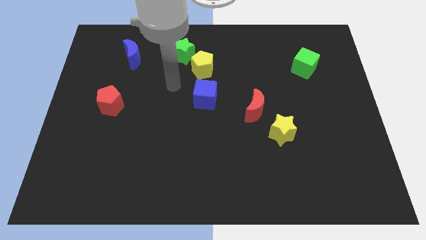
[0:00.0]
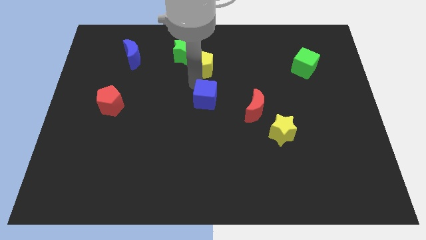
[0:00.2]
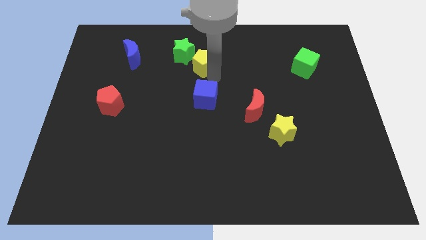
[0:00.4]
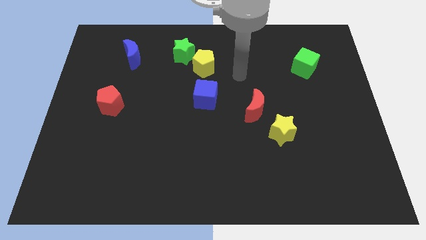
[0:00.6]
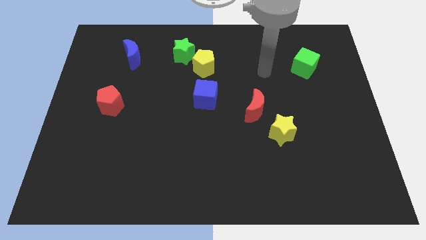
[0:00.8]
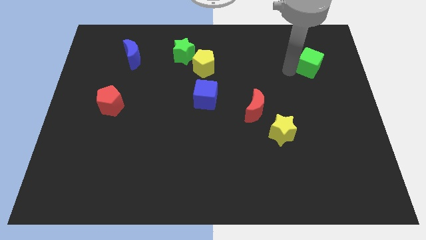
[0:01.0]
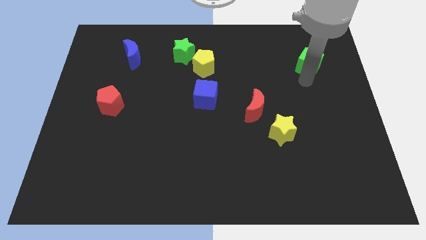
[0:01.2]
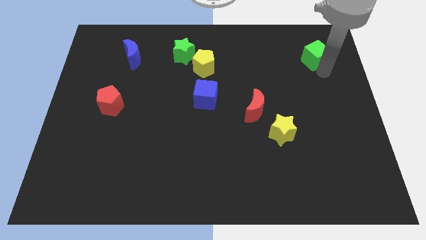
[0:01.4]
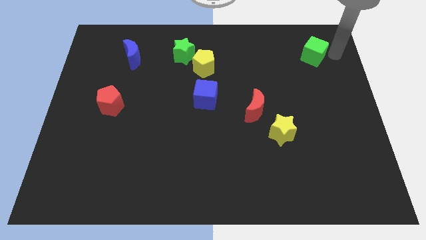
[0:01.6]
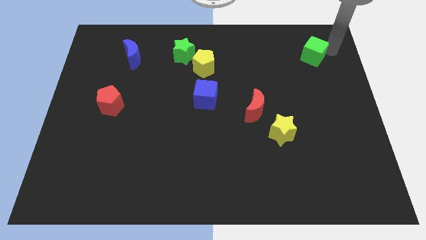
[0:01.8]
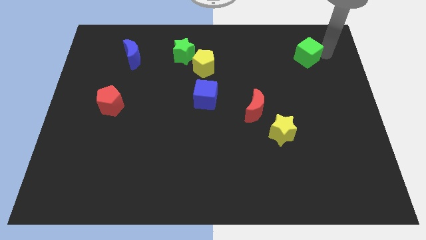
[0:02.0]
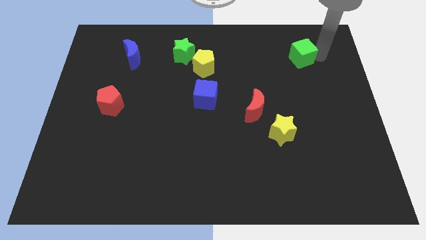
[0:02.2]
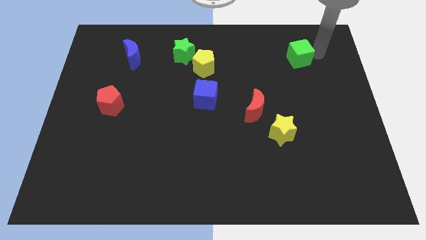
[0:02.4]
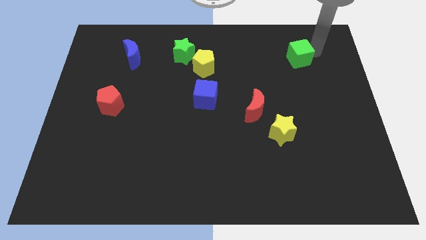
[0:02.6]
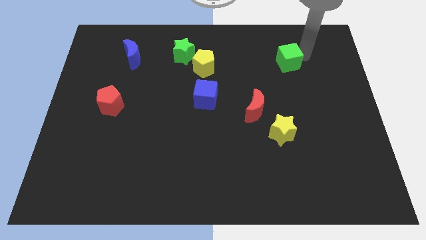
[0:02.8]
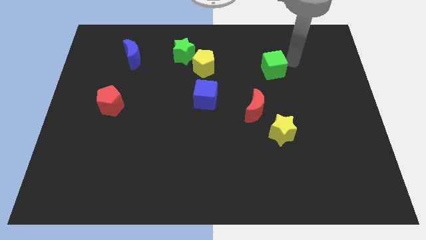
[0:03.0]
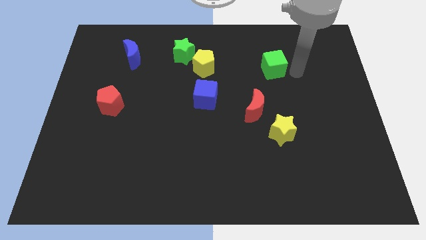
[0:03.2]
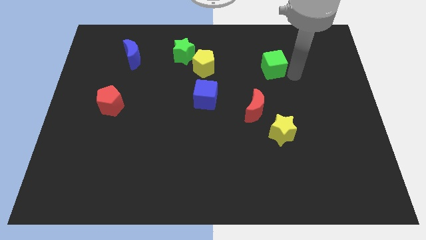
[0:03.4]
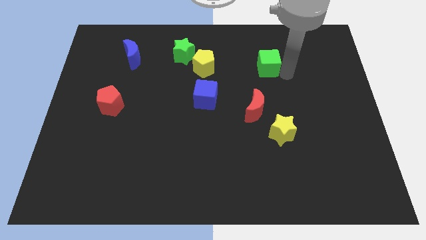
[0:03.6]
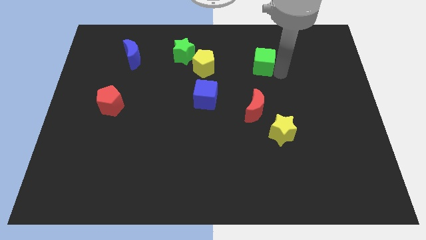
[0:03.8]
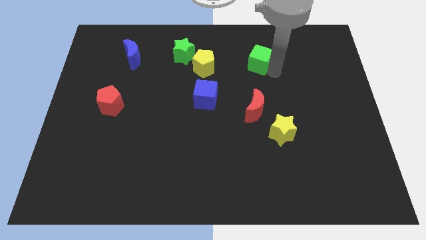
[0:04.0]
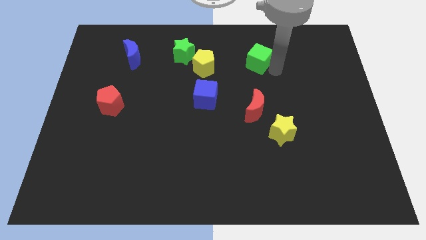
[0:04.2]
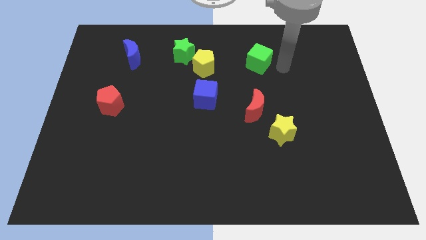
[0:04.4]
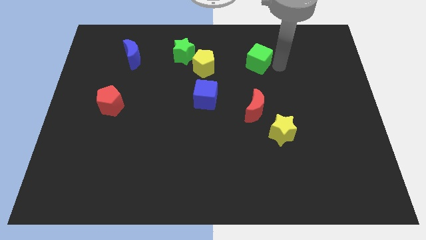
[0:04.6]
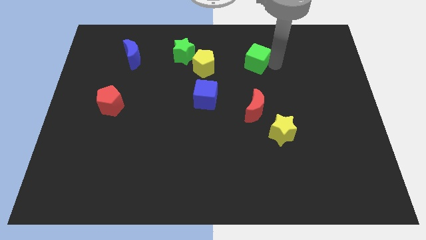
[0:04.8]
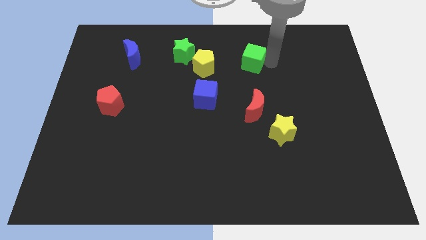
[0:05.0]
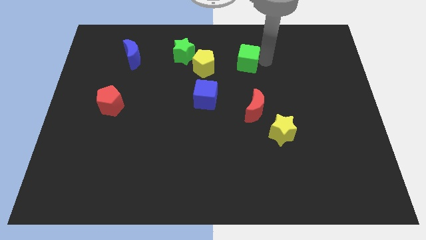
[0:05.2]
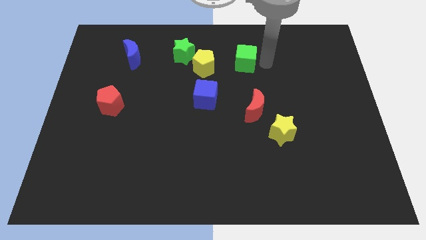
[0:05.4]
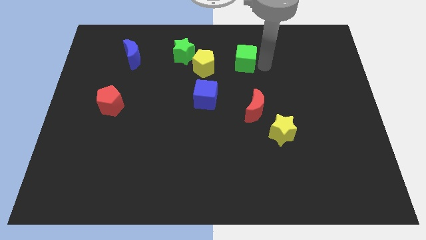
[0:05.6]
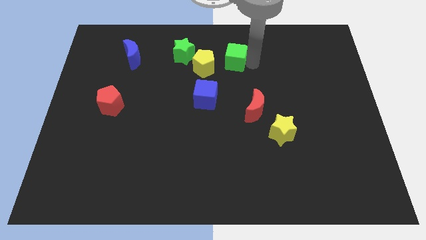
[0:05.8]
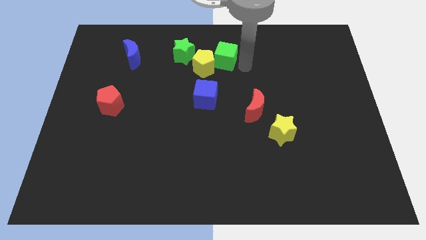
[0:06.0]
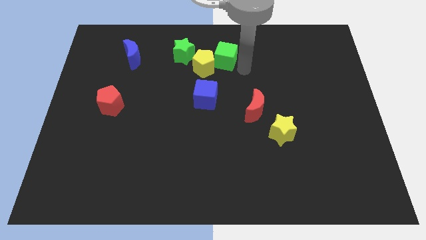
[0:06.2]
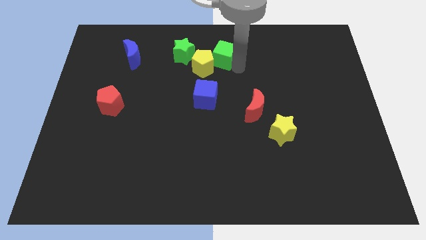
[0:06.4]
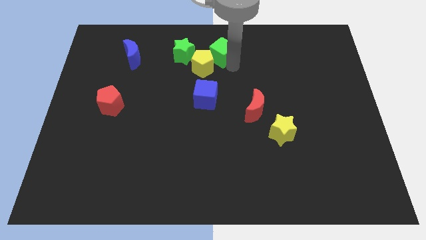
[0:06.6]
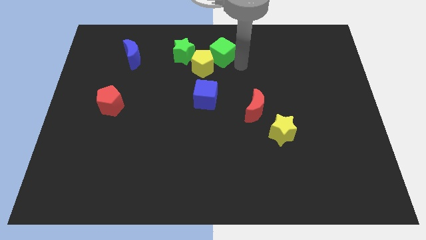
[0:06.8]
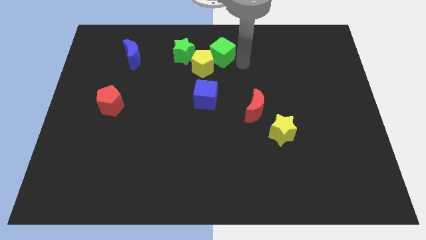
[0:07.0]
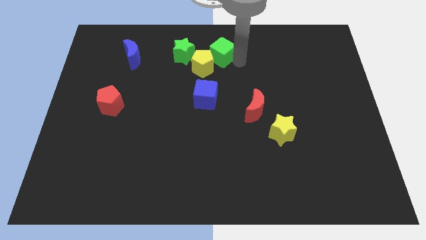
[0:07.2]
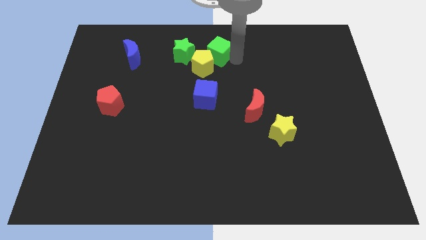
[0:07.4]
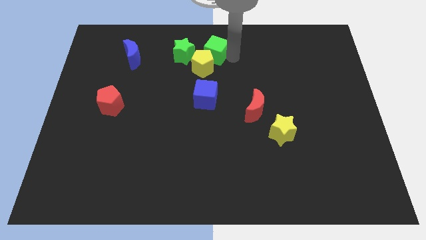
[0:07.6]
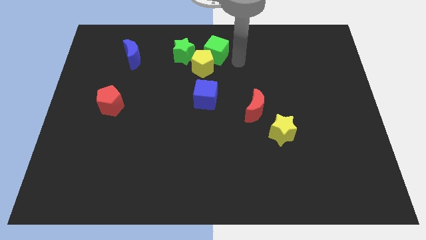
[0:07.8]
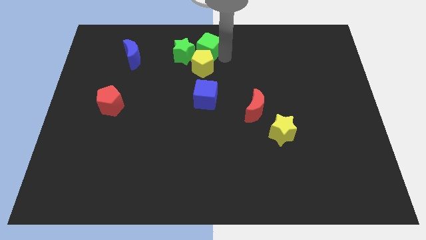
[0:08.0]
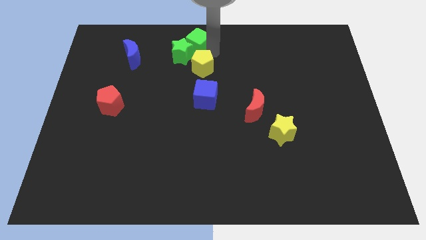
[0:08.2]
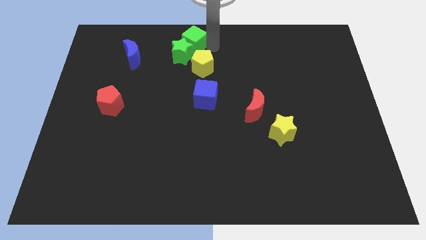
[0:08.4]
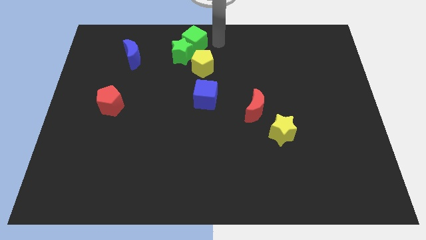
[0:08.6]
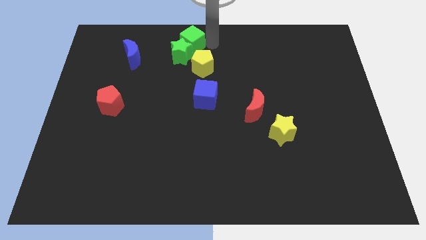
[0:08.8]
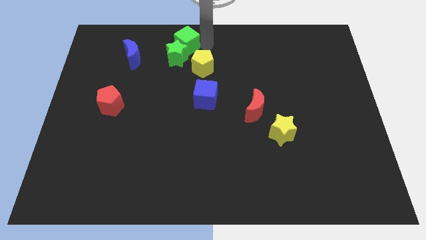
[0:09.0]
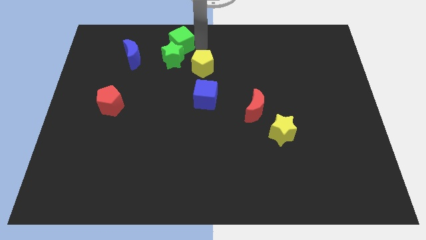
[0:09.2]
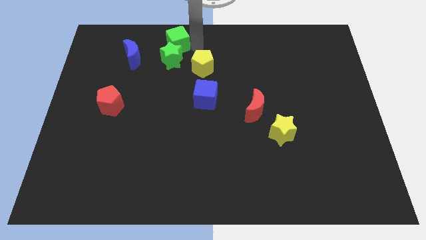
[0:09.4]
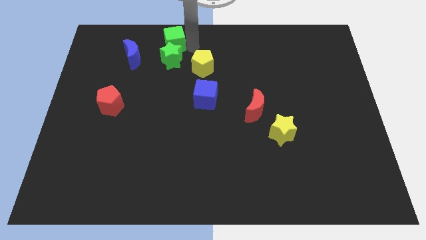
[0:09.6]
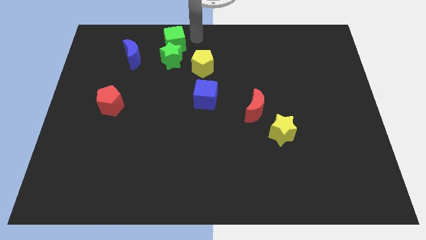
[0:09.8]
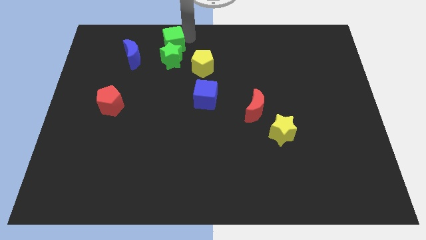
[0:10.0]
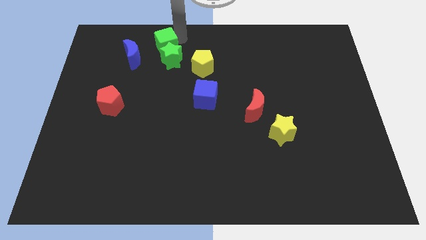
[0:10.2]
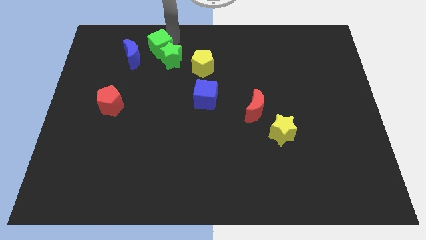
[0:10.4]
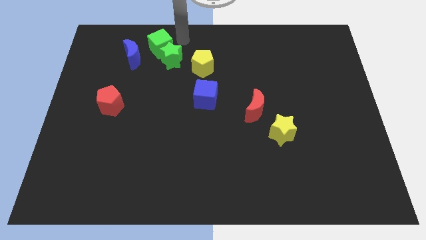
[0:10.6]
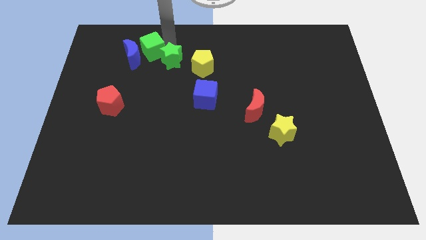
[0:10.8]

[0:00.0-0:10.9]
move the green cube to the blue moon

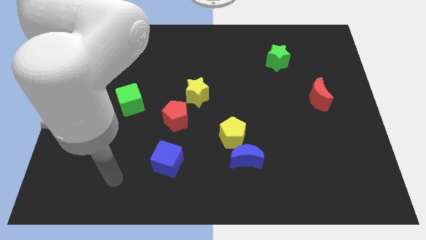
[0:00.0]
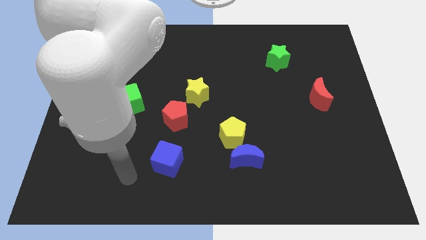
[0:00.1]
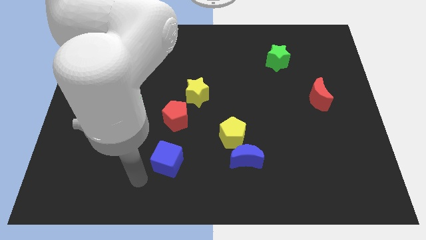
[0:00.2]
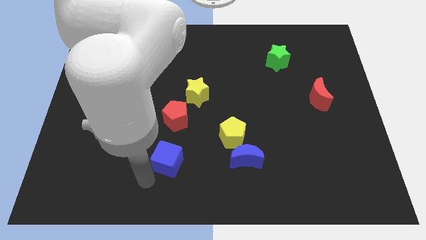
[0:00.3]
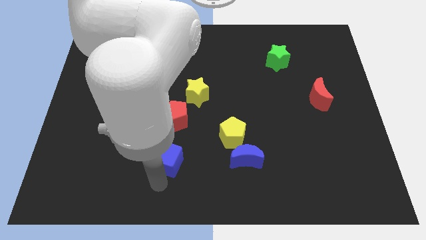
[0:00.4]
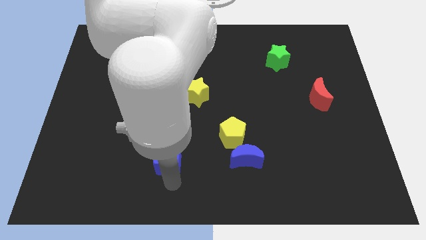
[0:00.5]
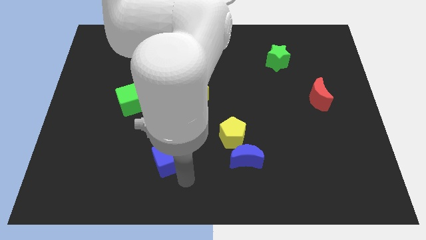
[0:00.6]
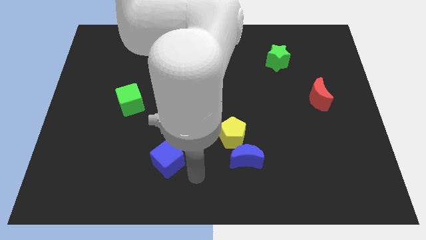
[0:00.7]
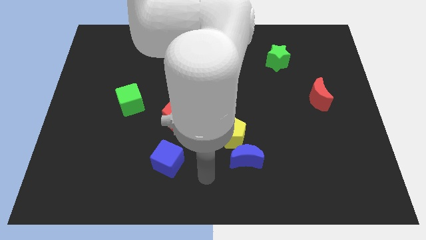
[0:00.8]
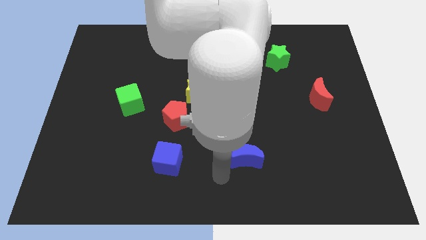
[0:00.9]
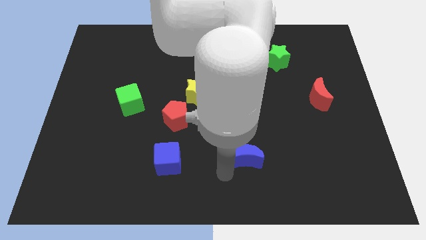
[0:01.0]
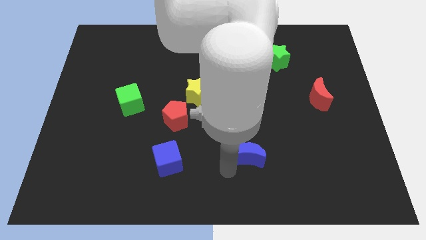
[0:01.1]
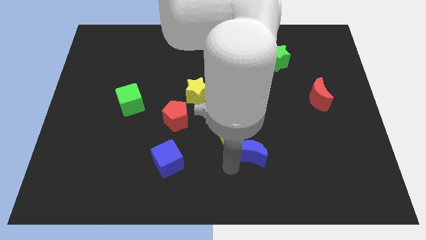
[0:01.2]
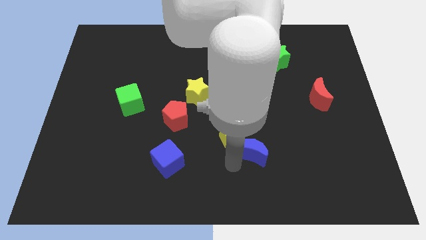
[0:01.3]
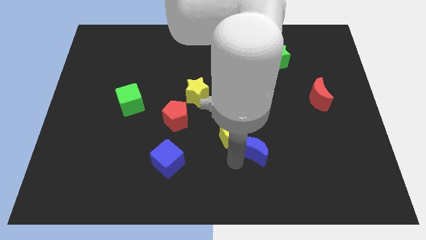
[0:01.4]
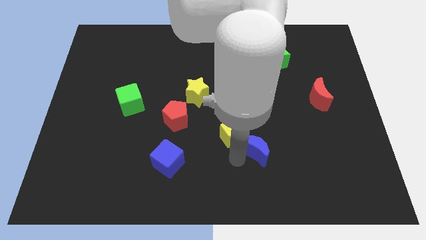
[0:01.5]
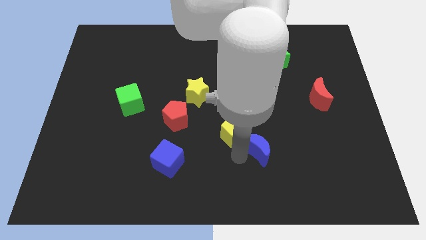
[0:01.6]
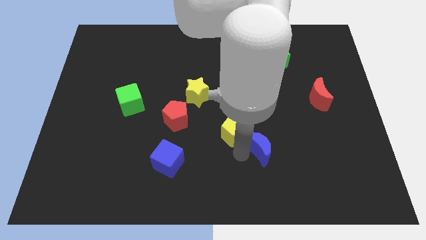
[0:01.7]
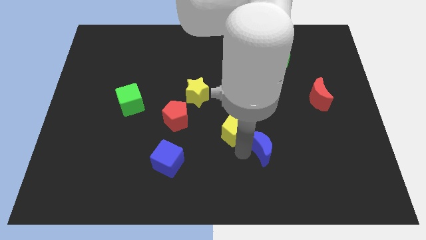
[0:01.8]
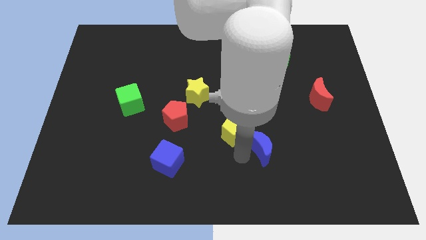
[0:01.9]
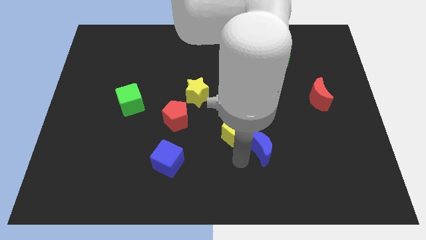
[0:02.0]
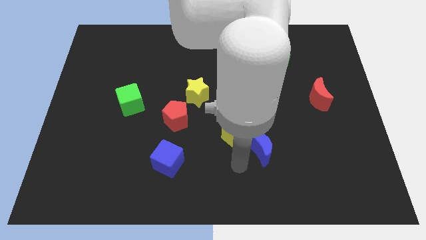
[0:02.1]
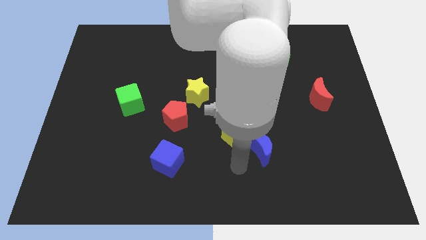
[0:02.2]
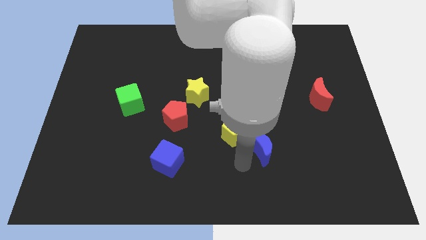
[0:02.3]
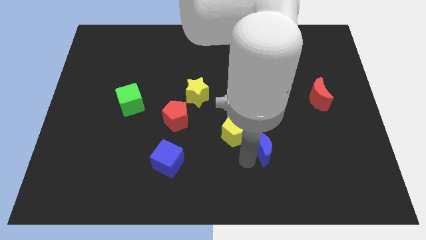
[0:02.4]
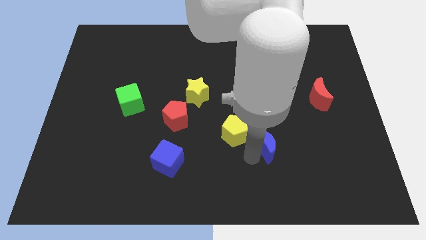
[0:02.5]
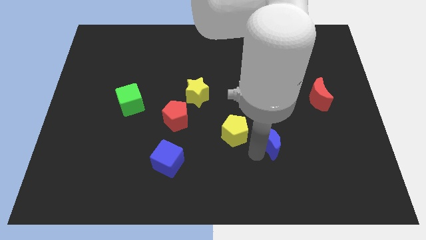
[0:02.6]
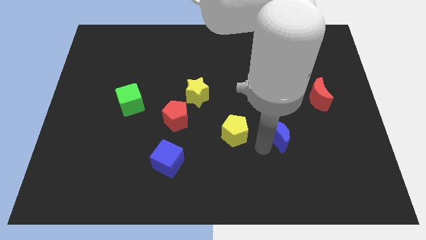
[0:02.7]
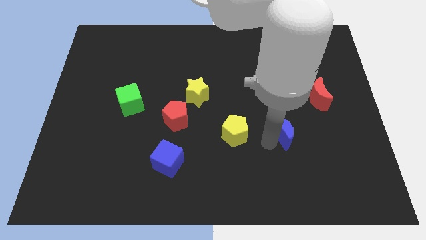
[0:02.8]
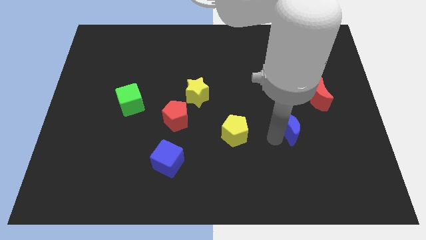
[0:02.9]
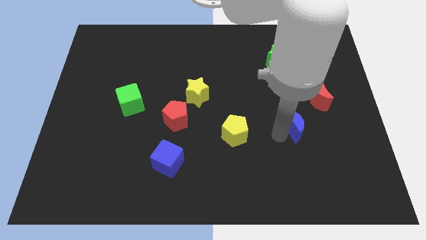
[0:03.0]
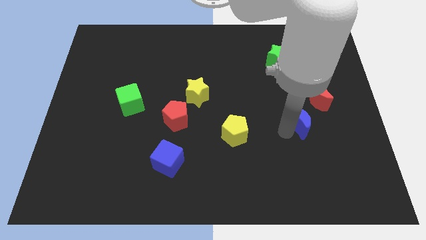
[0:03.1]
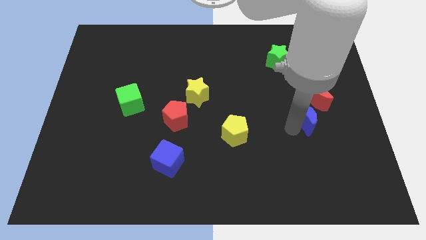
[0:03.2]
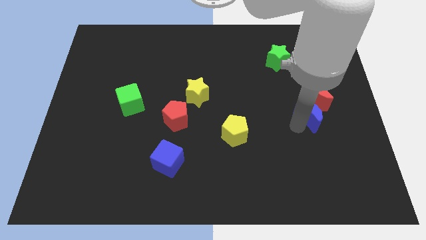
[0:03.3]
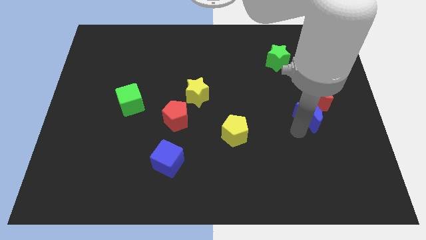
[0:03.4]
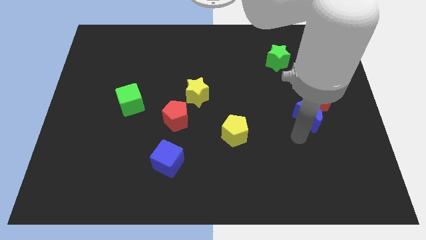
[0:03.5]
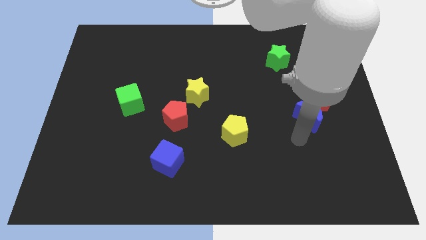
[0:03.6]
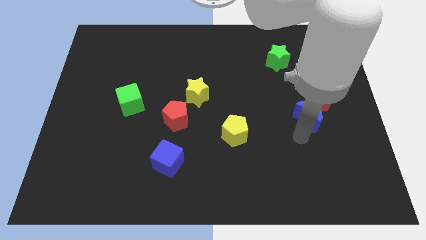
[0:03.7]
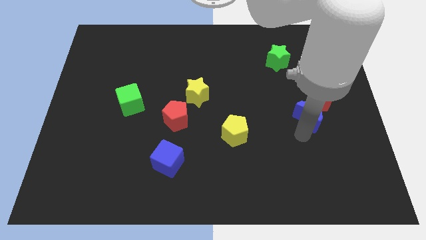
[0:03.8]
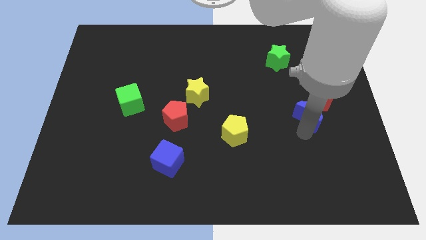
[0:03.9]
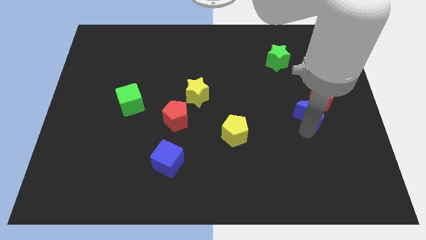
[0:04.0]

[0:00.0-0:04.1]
move the blue moon next to the red moon
